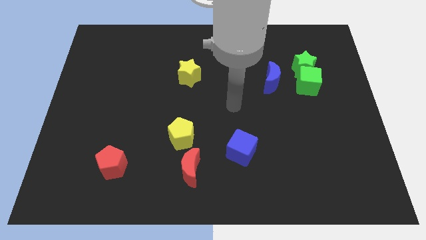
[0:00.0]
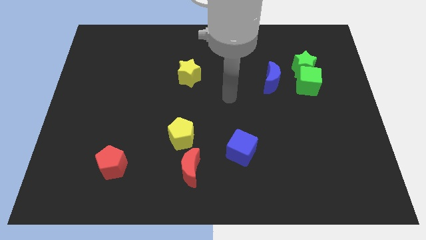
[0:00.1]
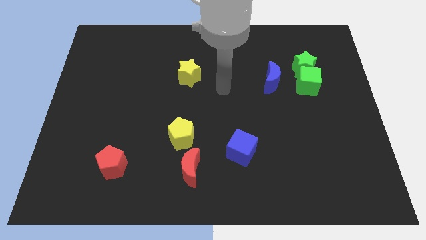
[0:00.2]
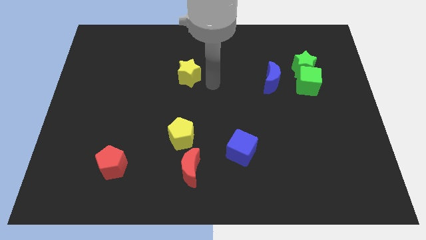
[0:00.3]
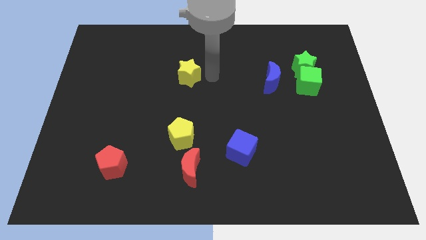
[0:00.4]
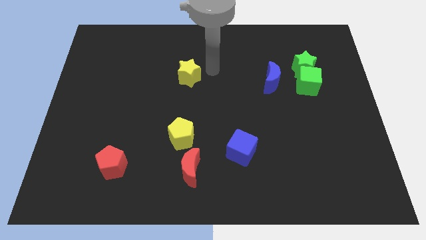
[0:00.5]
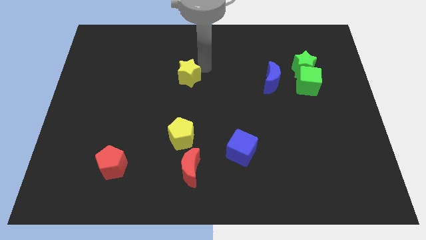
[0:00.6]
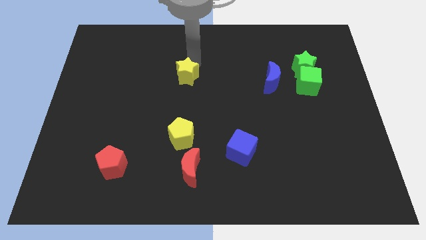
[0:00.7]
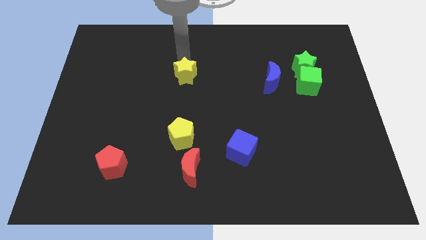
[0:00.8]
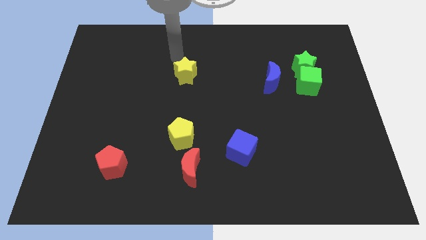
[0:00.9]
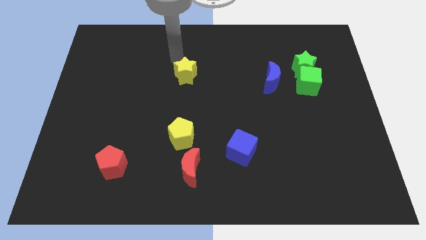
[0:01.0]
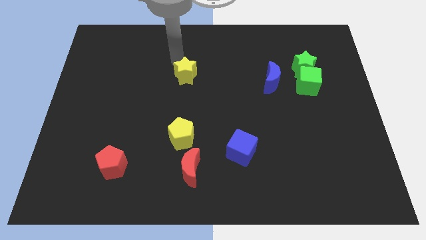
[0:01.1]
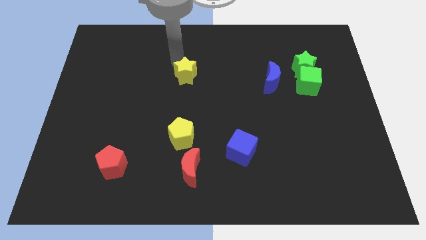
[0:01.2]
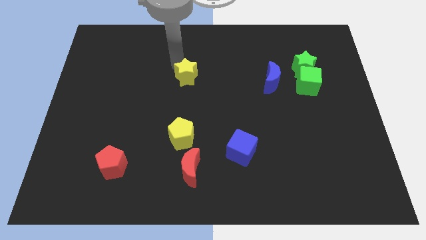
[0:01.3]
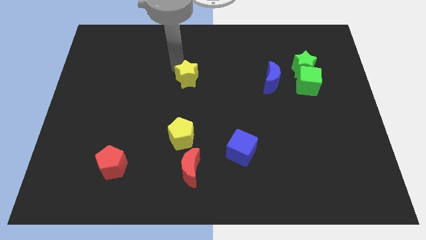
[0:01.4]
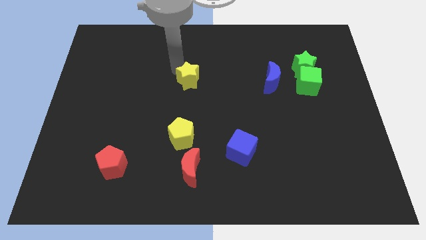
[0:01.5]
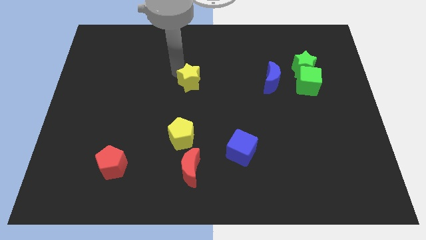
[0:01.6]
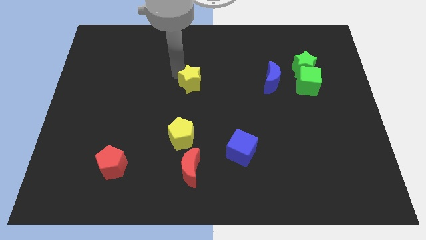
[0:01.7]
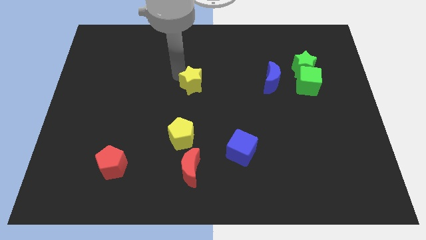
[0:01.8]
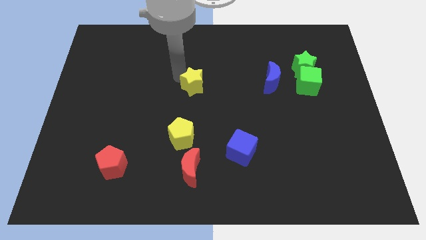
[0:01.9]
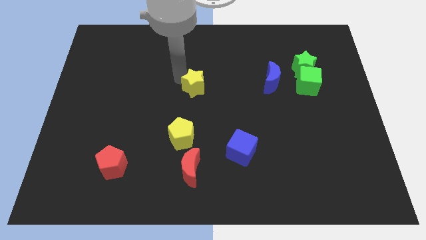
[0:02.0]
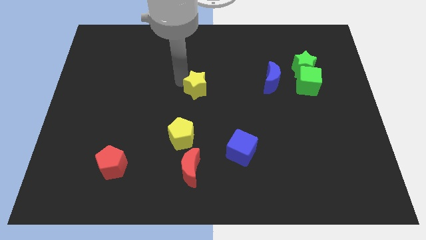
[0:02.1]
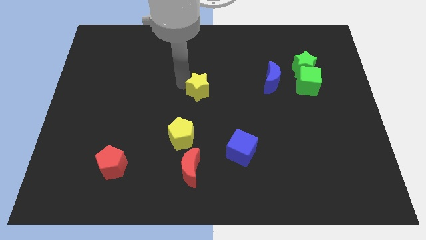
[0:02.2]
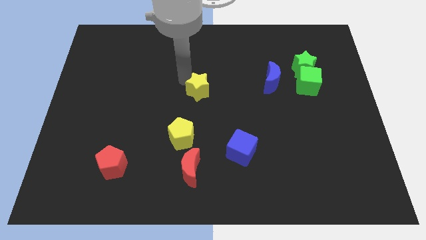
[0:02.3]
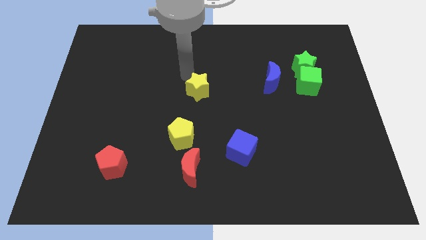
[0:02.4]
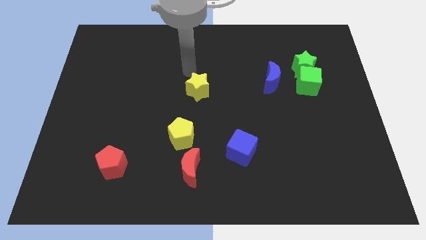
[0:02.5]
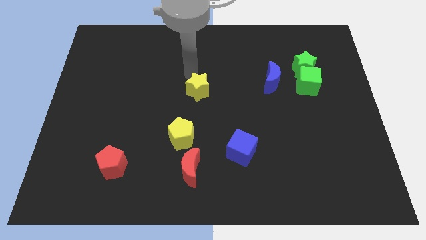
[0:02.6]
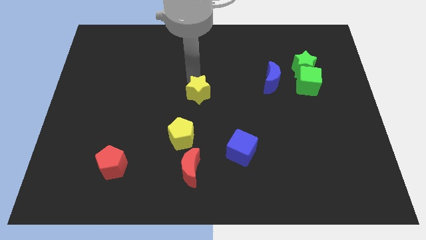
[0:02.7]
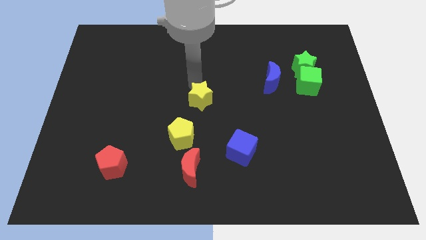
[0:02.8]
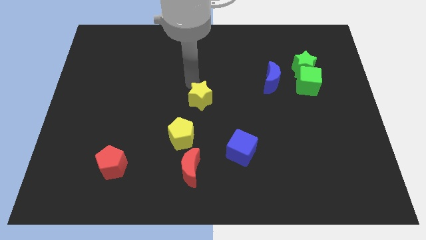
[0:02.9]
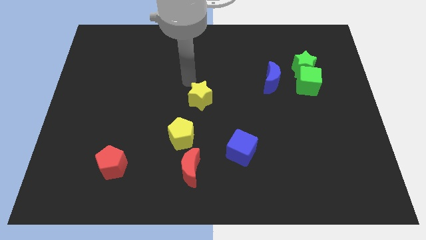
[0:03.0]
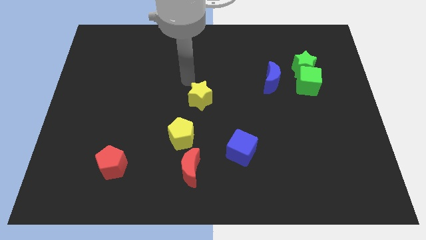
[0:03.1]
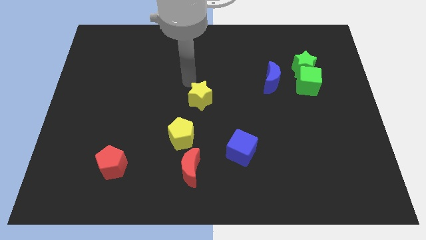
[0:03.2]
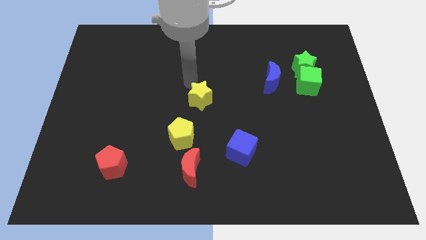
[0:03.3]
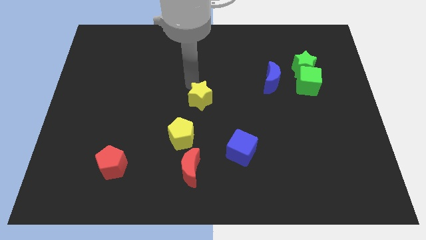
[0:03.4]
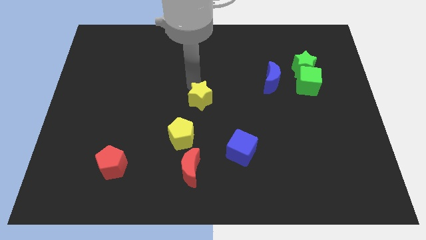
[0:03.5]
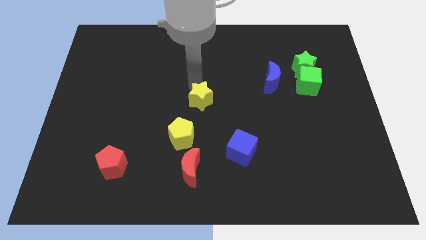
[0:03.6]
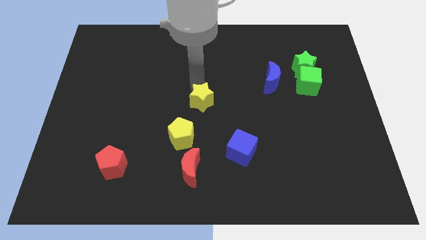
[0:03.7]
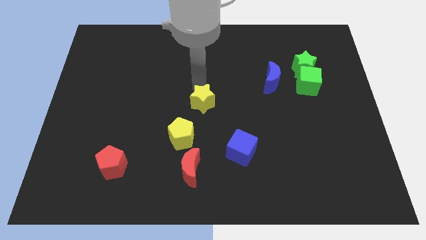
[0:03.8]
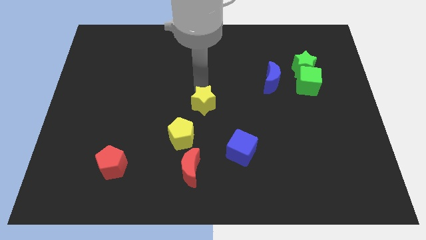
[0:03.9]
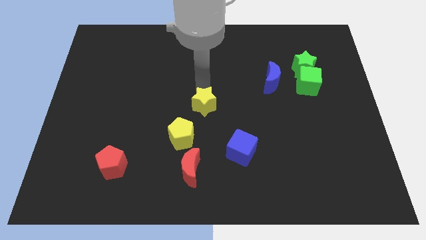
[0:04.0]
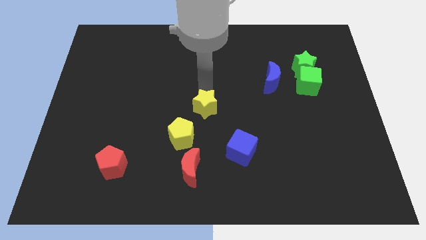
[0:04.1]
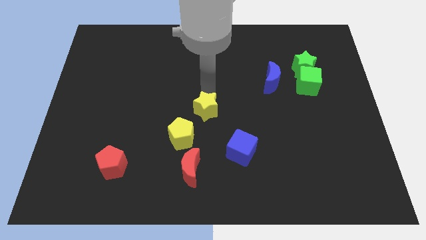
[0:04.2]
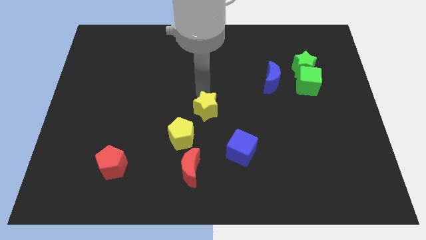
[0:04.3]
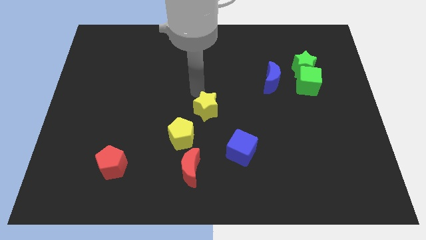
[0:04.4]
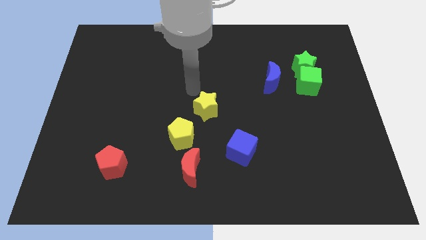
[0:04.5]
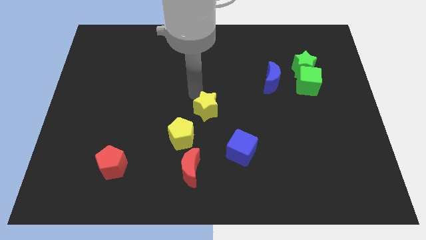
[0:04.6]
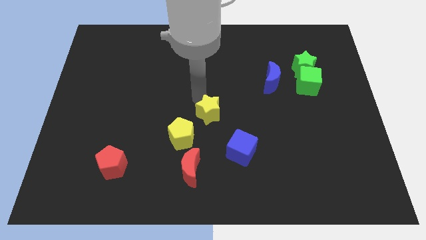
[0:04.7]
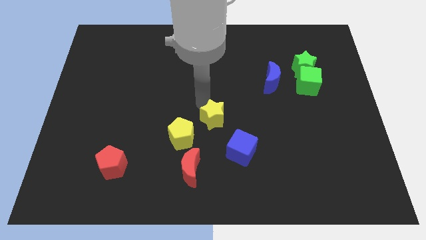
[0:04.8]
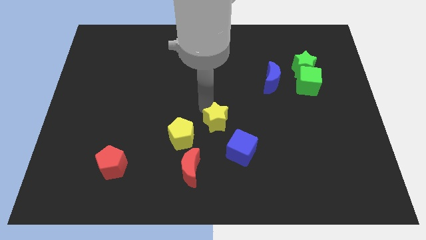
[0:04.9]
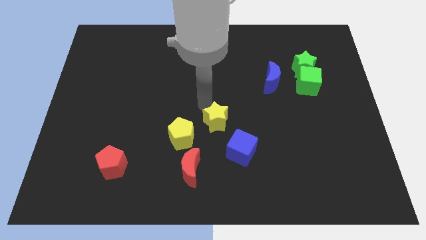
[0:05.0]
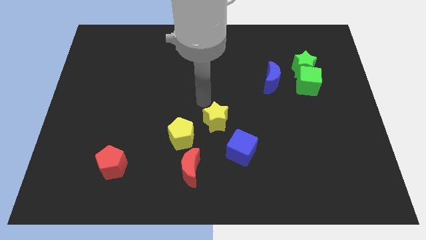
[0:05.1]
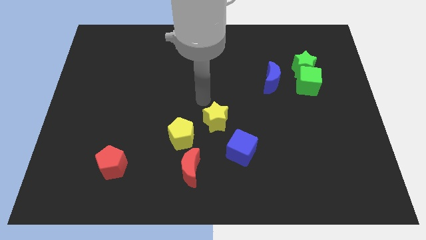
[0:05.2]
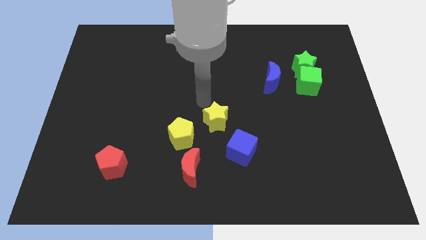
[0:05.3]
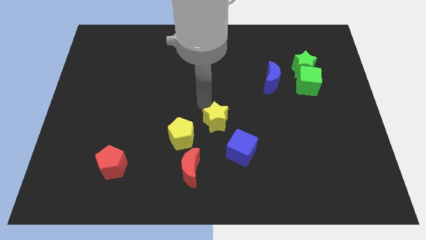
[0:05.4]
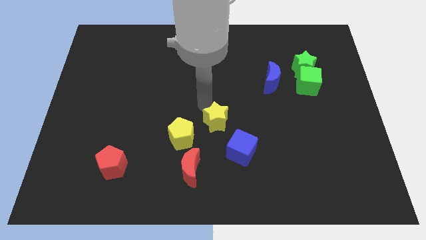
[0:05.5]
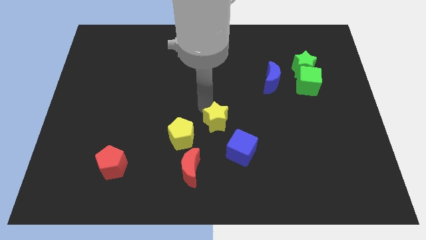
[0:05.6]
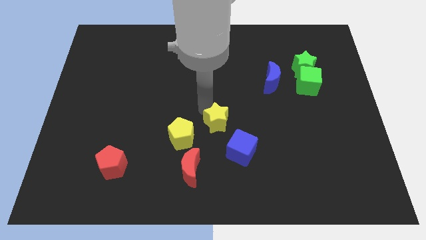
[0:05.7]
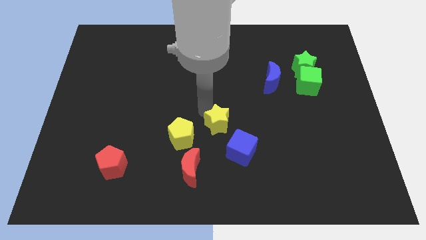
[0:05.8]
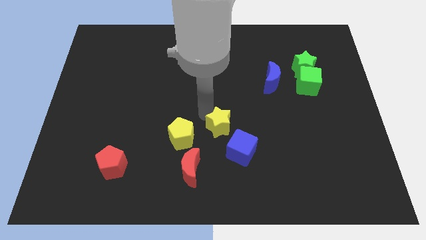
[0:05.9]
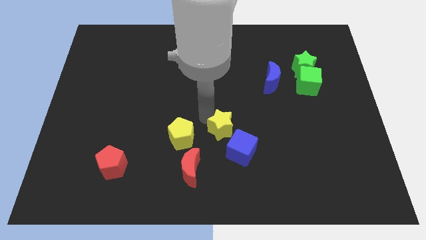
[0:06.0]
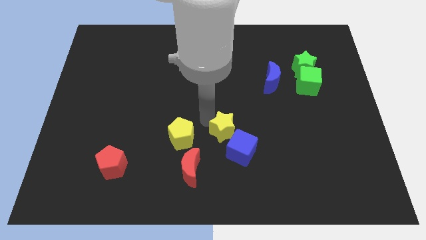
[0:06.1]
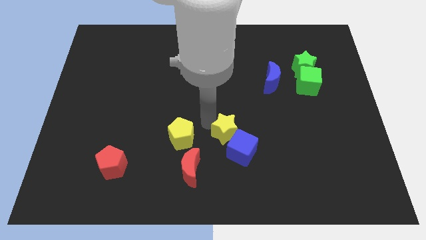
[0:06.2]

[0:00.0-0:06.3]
put the yellow star close to the blue cube
